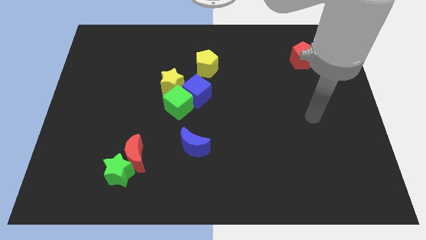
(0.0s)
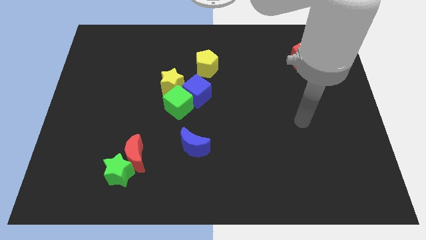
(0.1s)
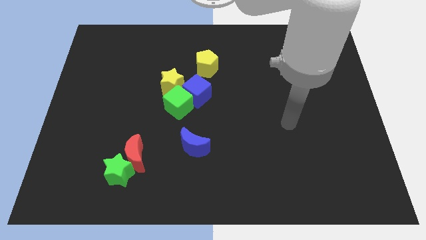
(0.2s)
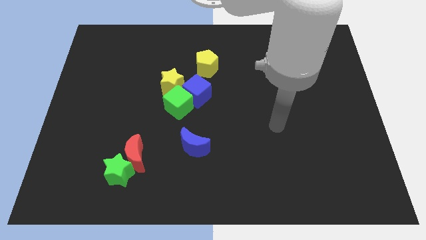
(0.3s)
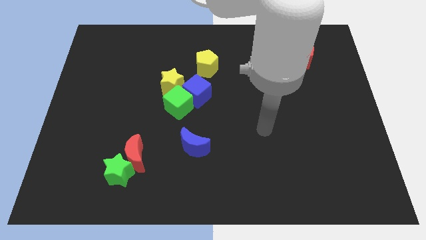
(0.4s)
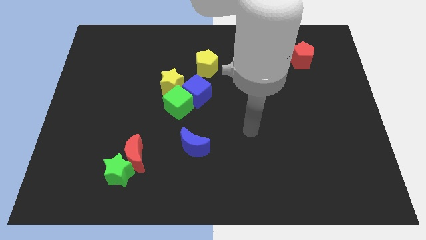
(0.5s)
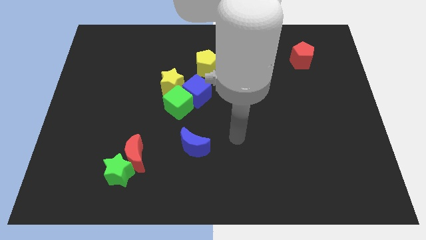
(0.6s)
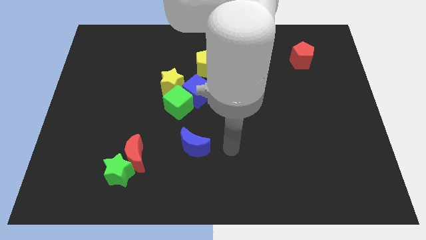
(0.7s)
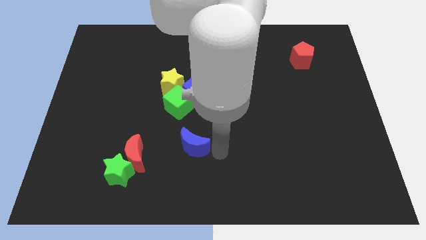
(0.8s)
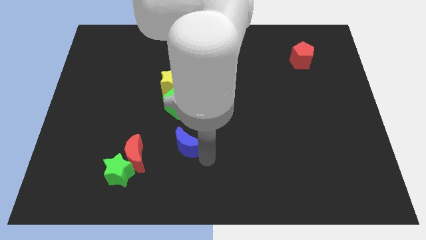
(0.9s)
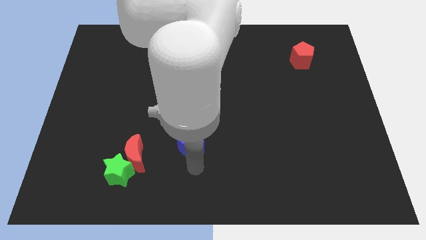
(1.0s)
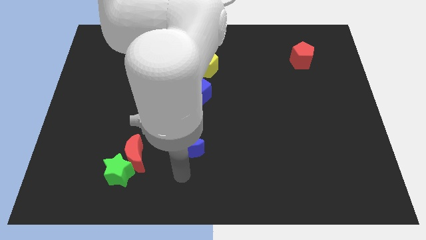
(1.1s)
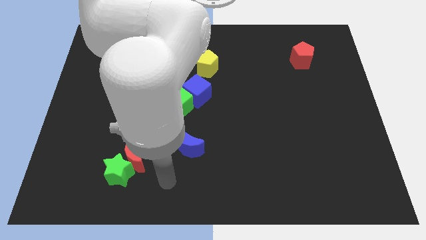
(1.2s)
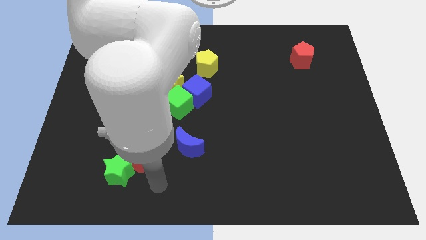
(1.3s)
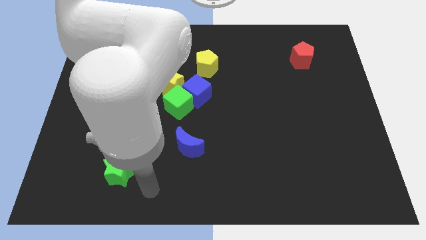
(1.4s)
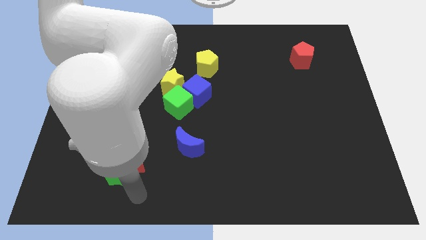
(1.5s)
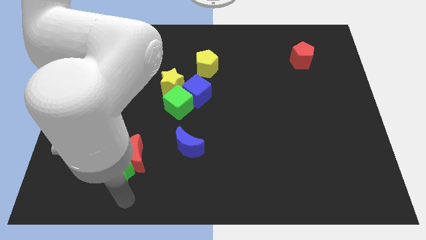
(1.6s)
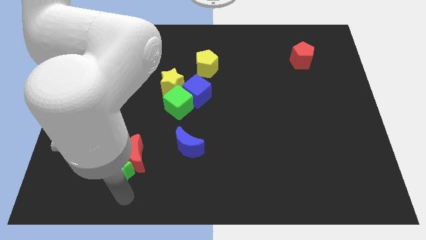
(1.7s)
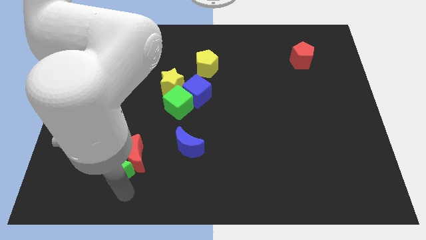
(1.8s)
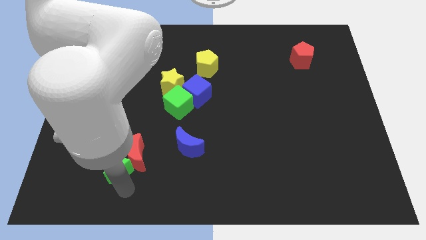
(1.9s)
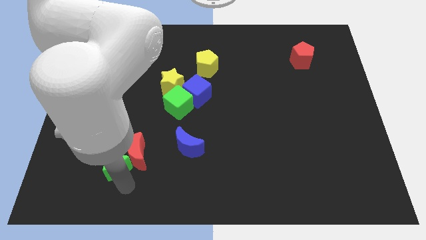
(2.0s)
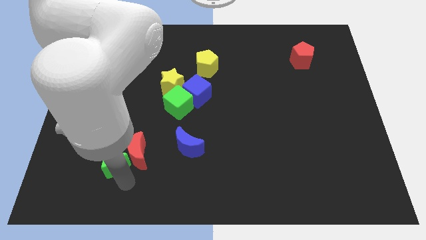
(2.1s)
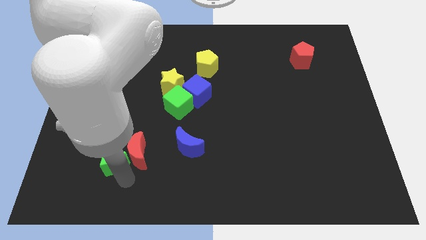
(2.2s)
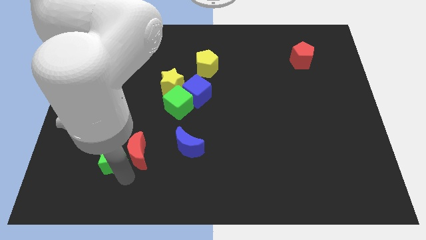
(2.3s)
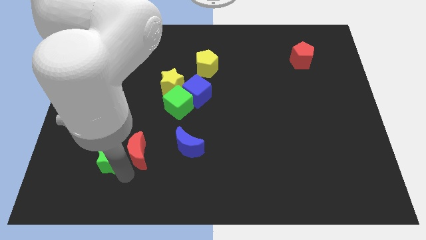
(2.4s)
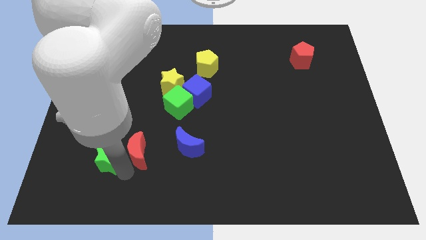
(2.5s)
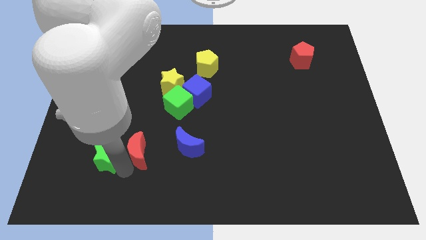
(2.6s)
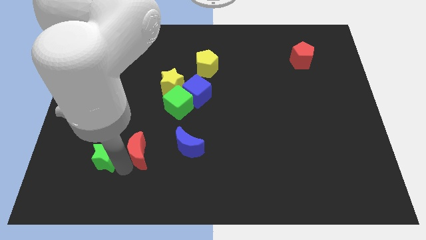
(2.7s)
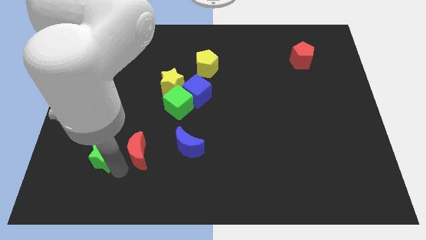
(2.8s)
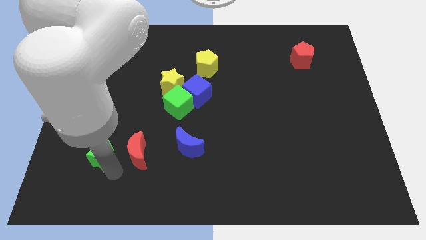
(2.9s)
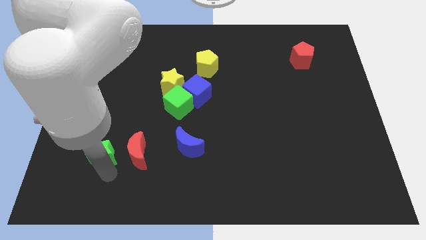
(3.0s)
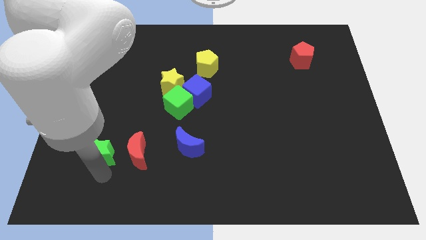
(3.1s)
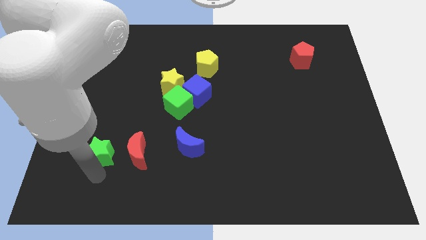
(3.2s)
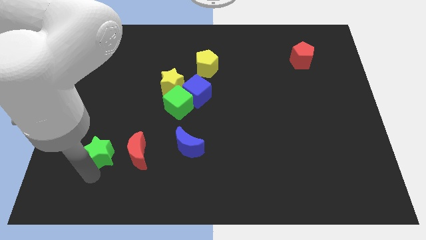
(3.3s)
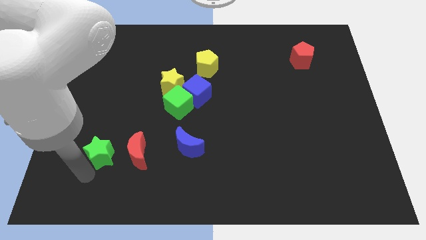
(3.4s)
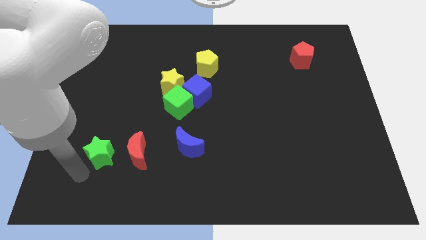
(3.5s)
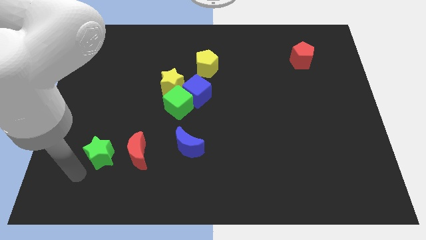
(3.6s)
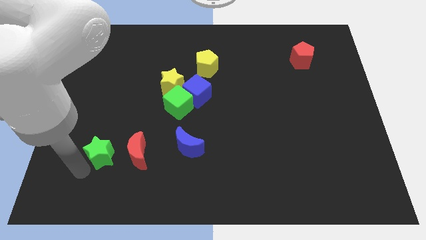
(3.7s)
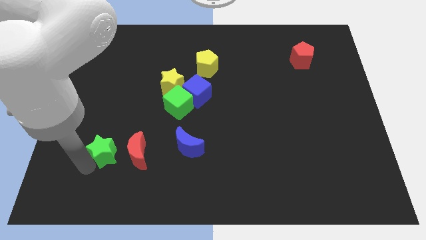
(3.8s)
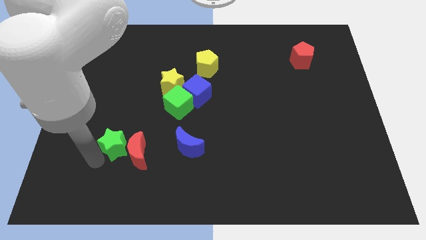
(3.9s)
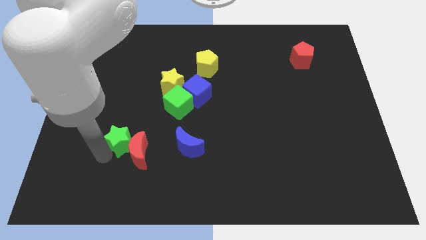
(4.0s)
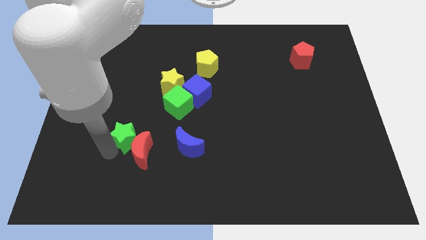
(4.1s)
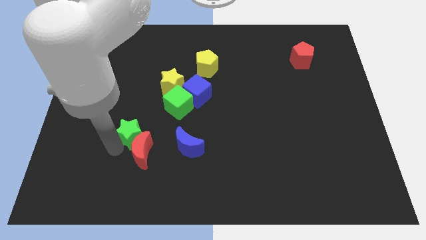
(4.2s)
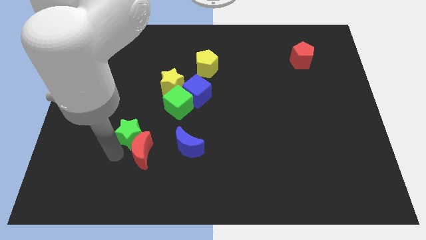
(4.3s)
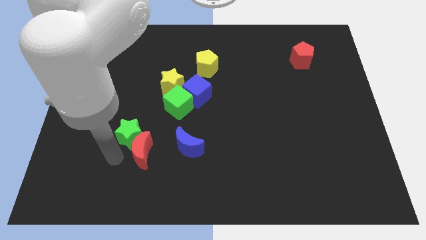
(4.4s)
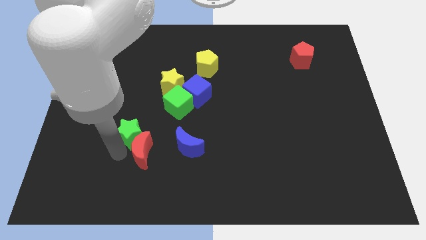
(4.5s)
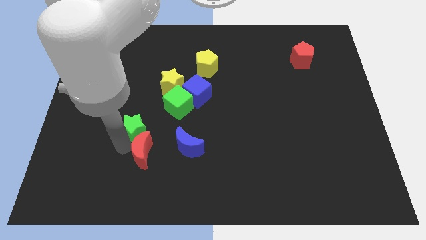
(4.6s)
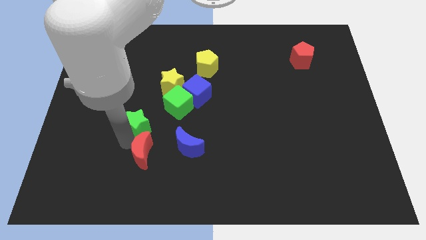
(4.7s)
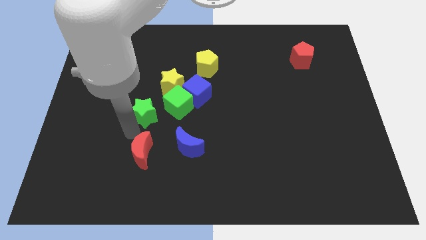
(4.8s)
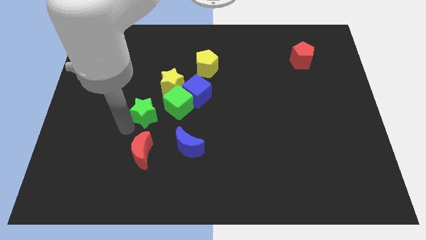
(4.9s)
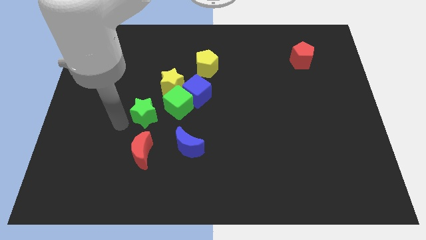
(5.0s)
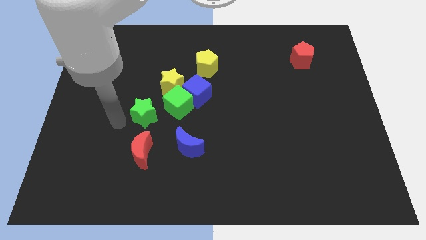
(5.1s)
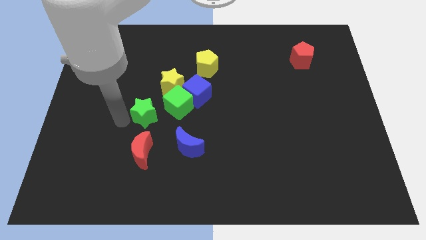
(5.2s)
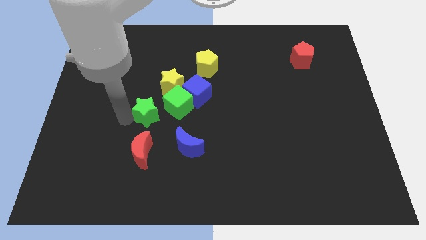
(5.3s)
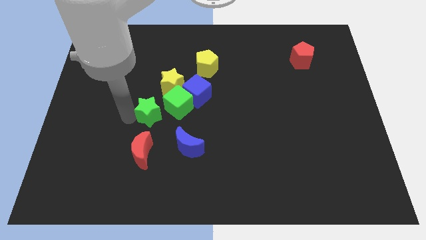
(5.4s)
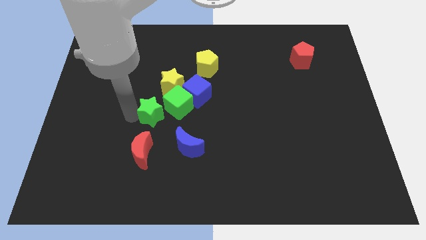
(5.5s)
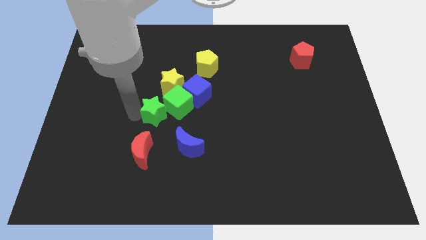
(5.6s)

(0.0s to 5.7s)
move the green star close to the green cube

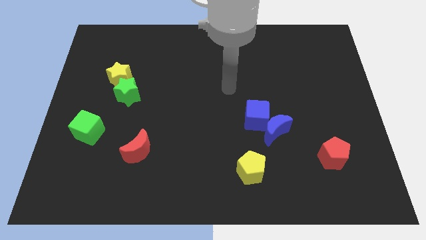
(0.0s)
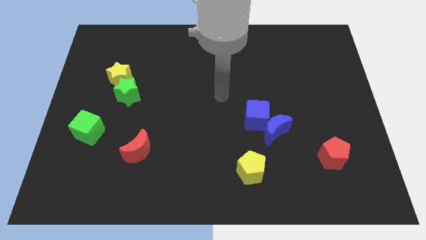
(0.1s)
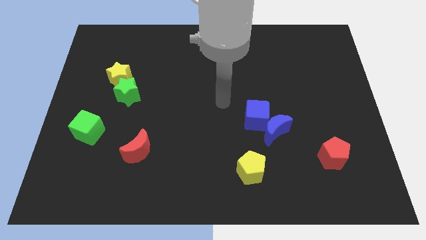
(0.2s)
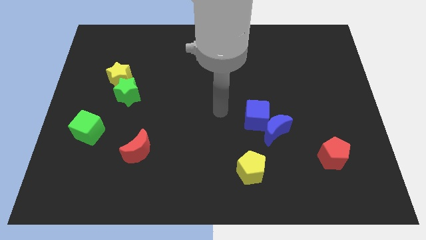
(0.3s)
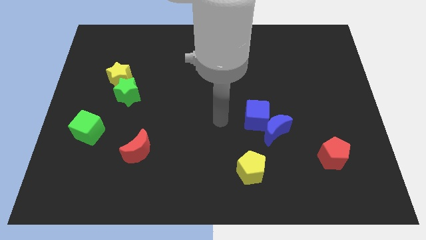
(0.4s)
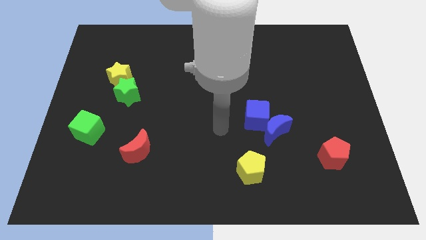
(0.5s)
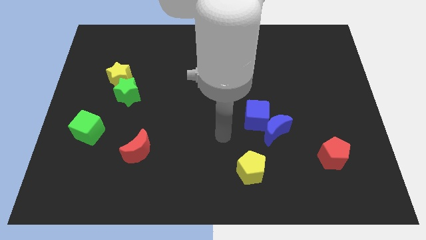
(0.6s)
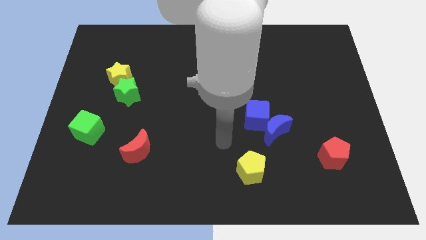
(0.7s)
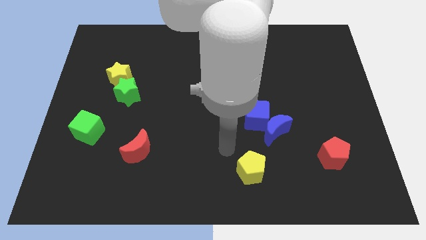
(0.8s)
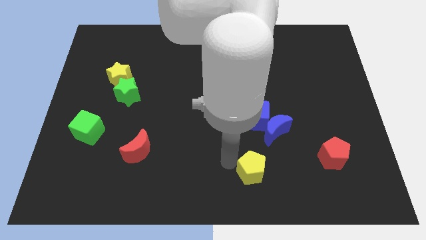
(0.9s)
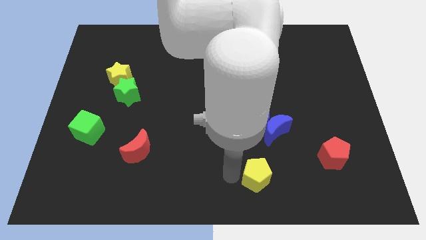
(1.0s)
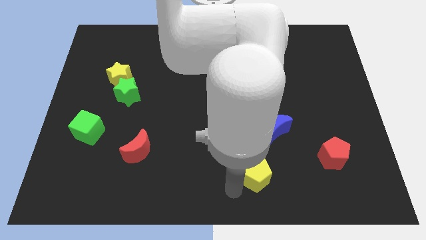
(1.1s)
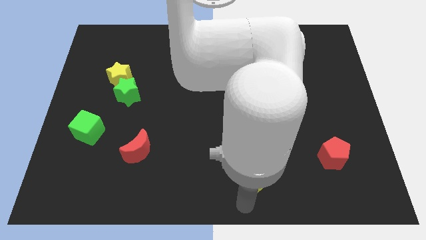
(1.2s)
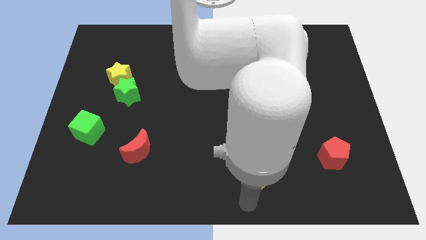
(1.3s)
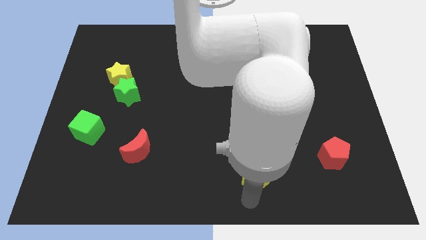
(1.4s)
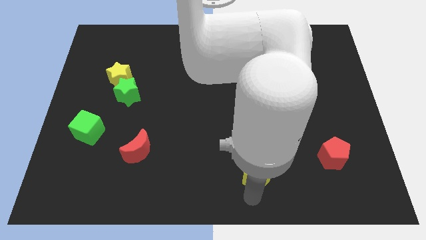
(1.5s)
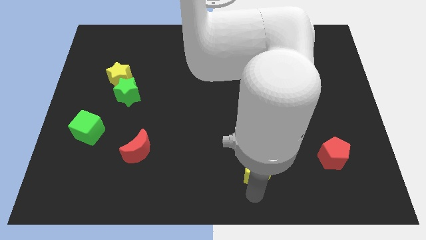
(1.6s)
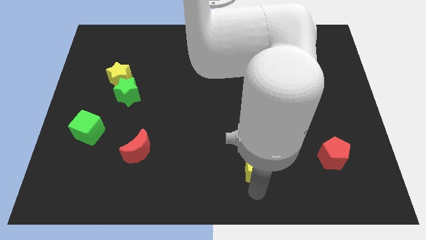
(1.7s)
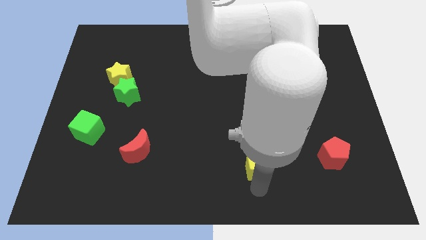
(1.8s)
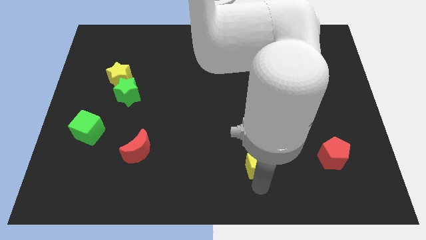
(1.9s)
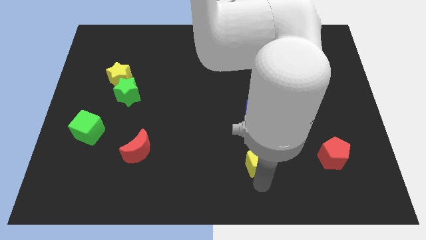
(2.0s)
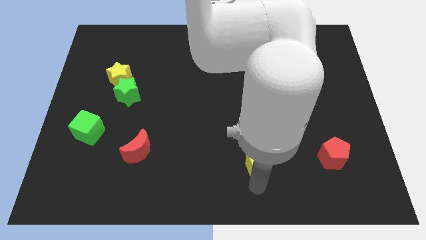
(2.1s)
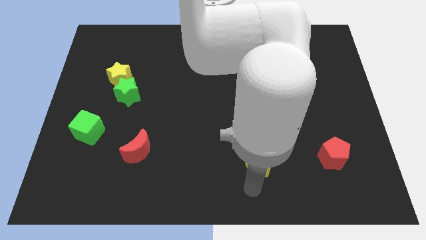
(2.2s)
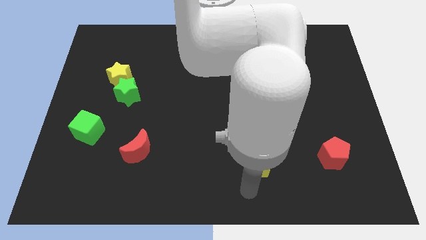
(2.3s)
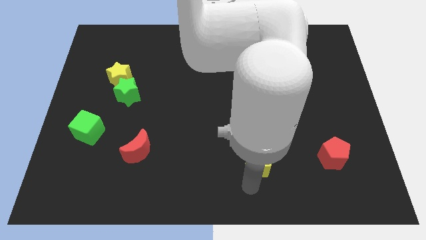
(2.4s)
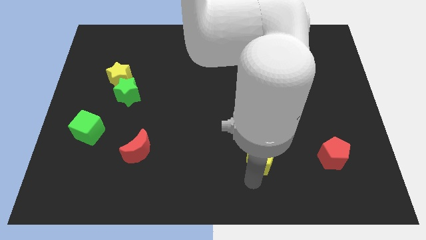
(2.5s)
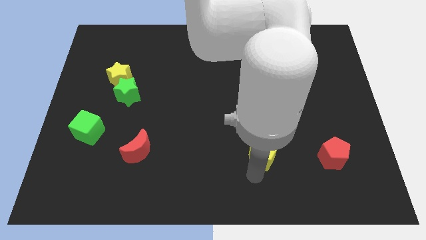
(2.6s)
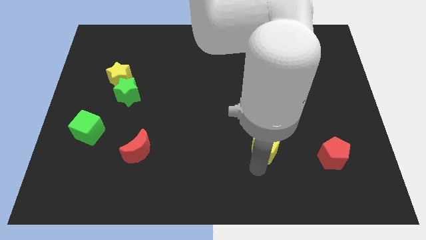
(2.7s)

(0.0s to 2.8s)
push the yellow pentagon next to the blue moon
